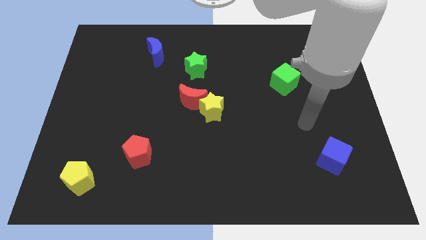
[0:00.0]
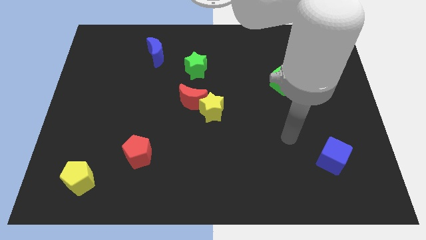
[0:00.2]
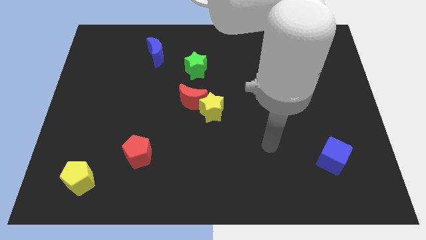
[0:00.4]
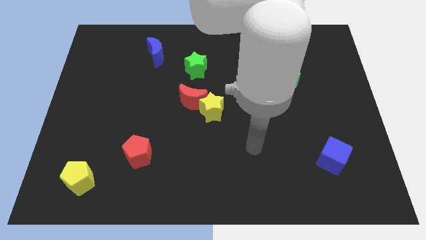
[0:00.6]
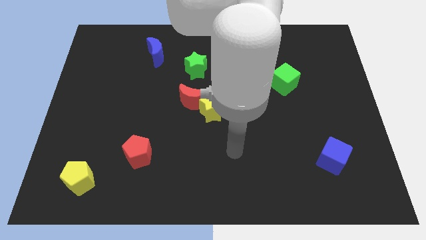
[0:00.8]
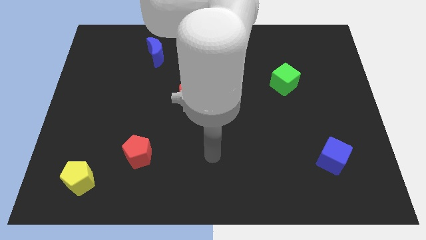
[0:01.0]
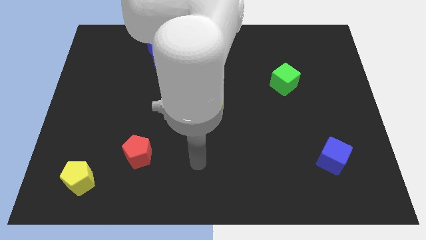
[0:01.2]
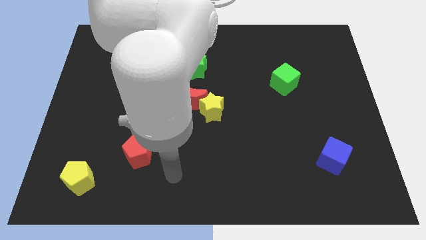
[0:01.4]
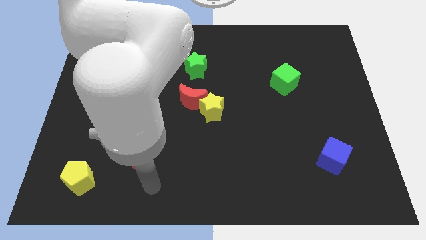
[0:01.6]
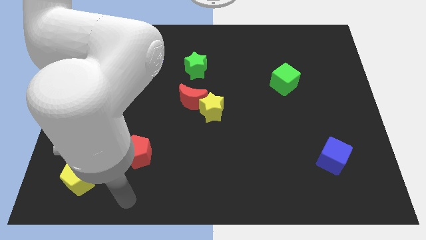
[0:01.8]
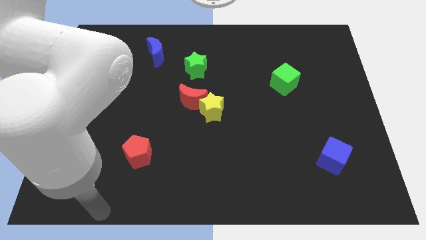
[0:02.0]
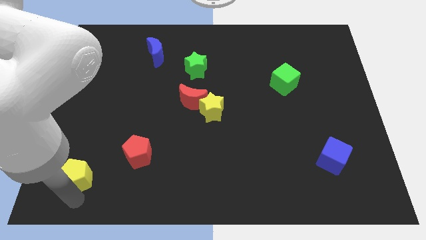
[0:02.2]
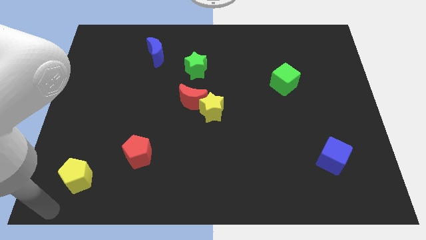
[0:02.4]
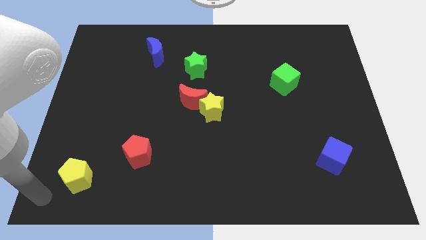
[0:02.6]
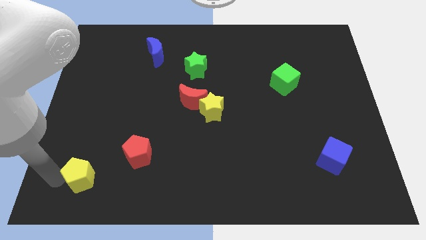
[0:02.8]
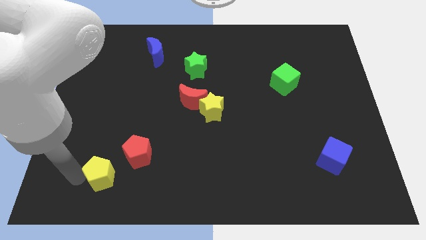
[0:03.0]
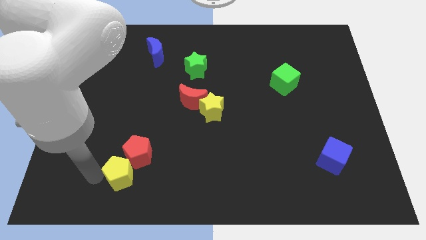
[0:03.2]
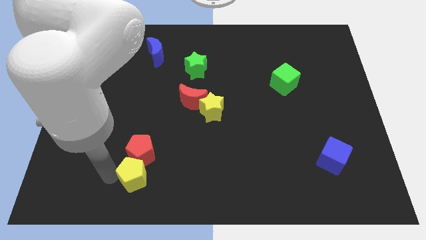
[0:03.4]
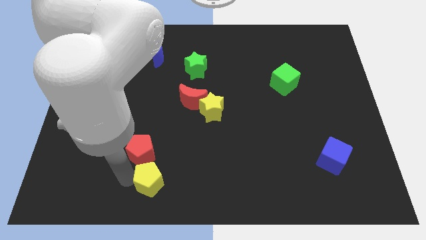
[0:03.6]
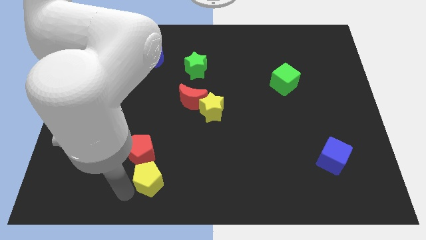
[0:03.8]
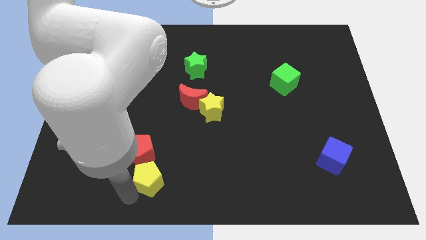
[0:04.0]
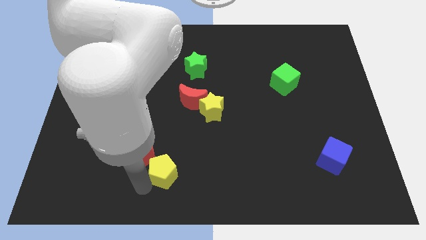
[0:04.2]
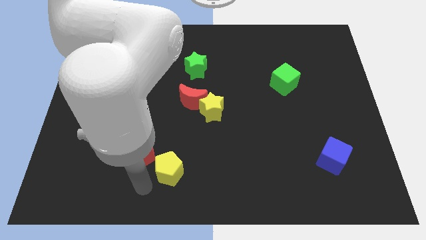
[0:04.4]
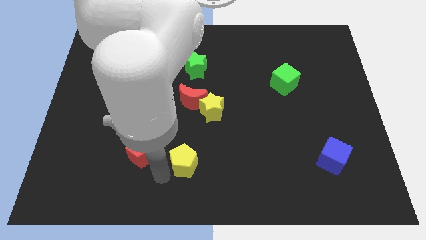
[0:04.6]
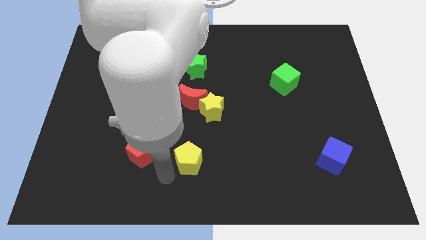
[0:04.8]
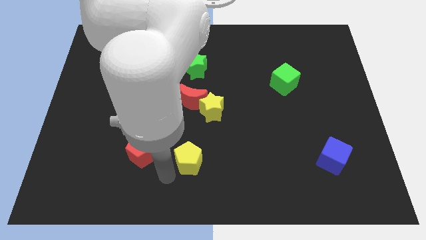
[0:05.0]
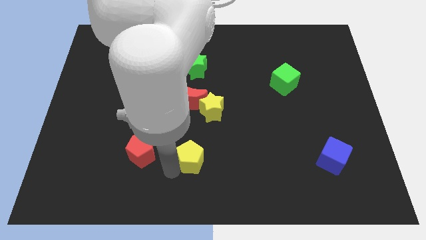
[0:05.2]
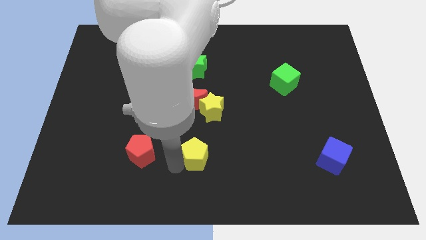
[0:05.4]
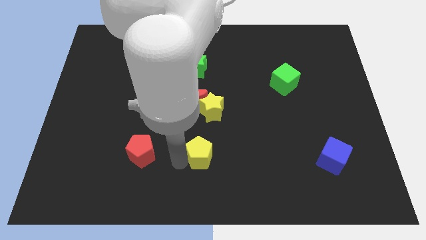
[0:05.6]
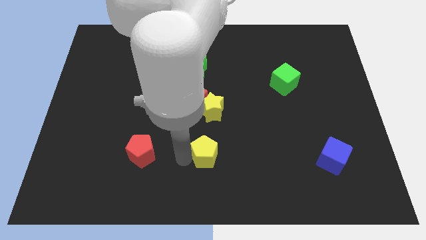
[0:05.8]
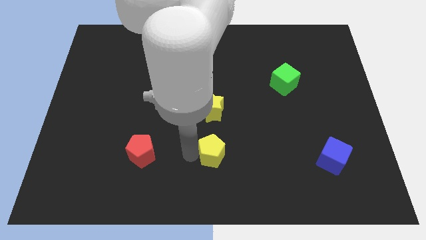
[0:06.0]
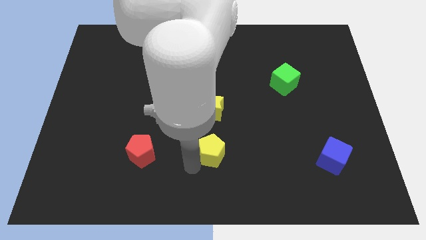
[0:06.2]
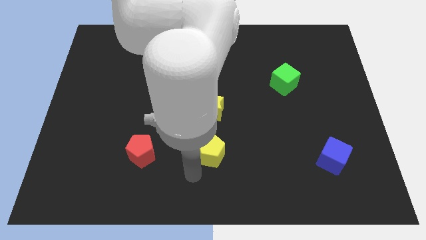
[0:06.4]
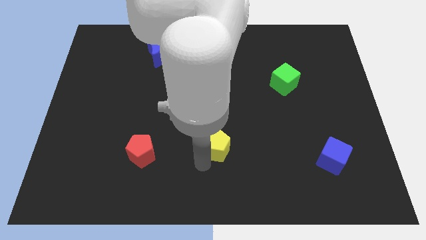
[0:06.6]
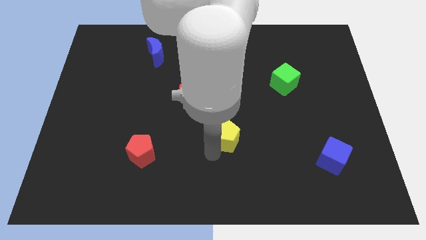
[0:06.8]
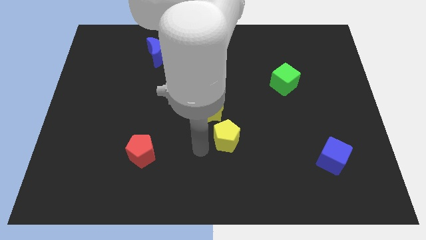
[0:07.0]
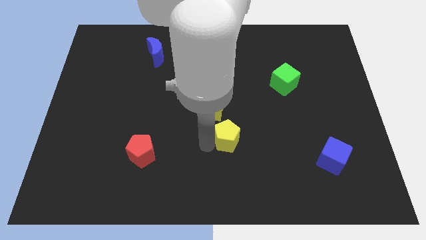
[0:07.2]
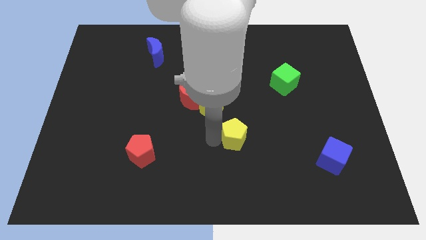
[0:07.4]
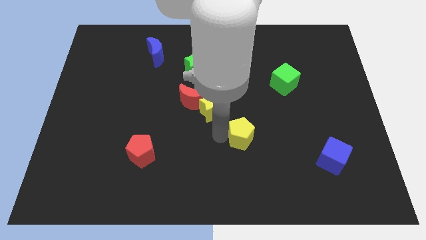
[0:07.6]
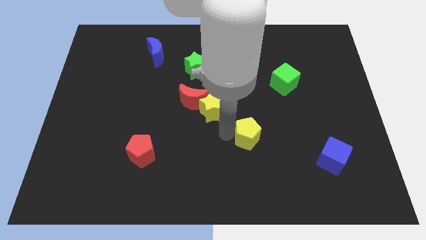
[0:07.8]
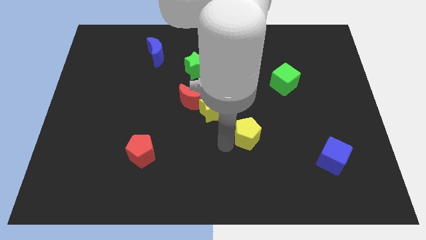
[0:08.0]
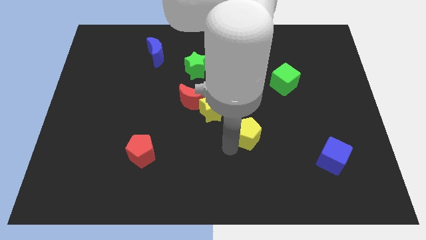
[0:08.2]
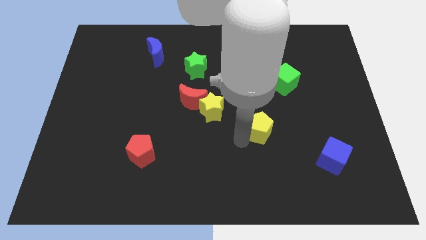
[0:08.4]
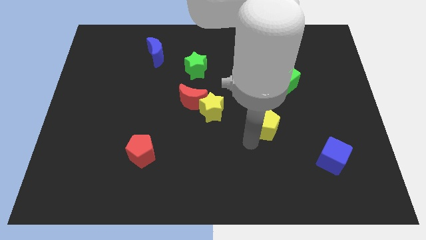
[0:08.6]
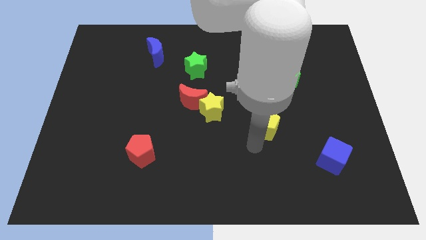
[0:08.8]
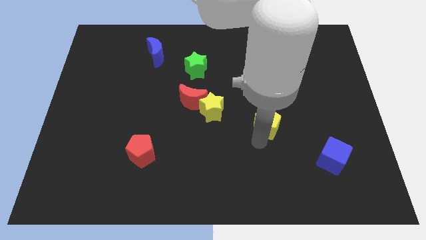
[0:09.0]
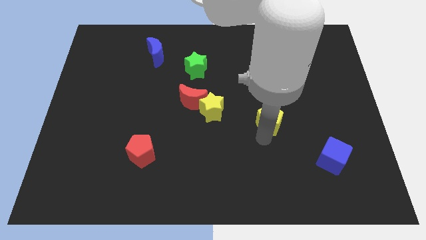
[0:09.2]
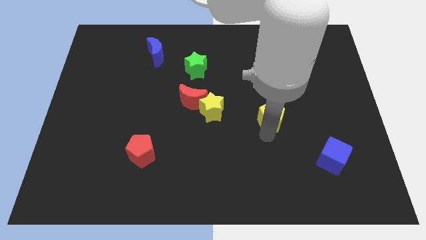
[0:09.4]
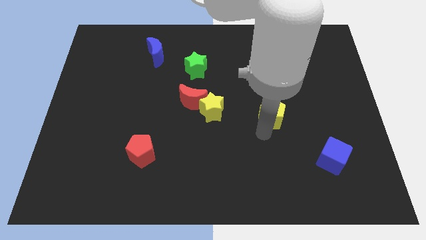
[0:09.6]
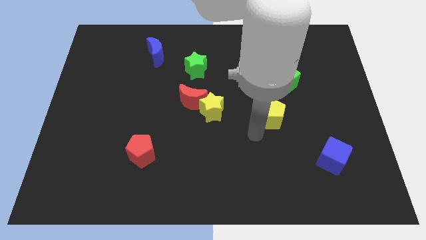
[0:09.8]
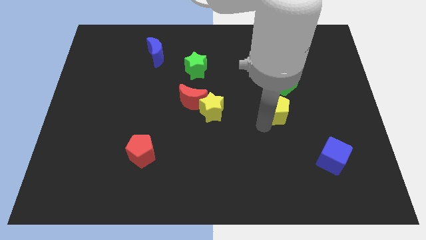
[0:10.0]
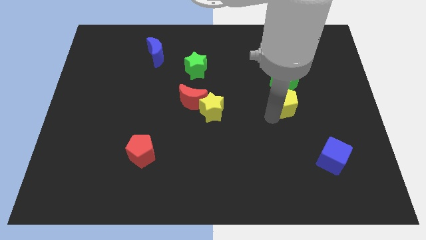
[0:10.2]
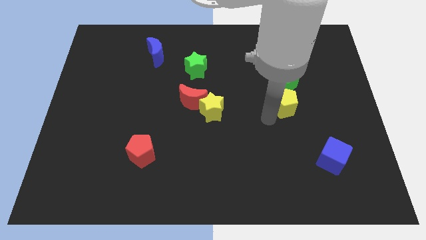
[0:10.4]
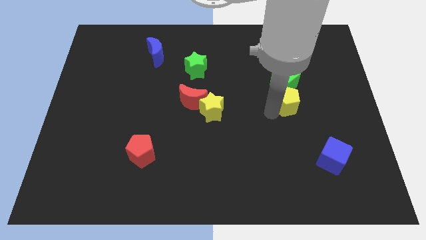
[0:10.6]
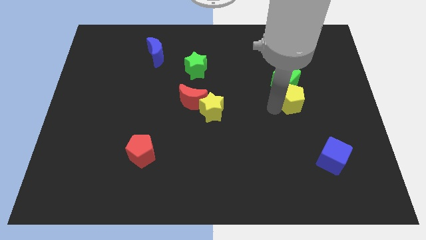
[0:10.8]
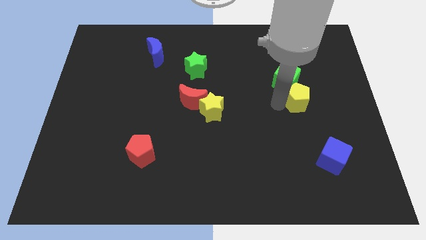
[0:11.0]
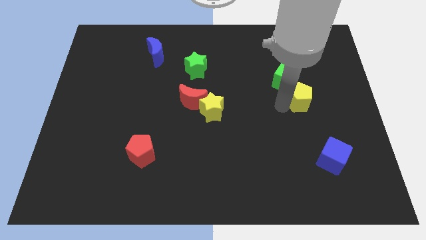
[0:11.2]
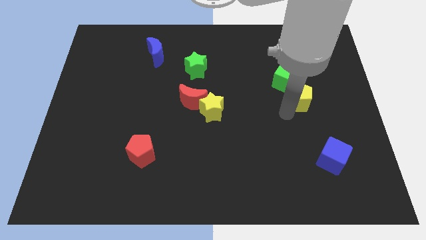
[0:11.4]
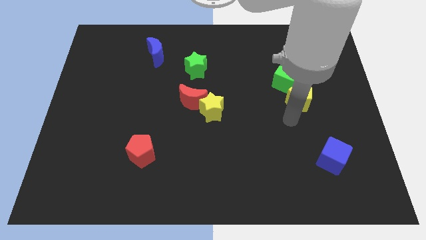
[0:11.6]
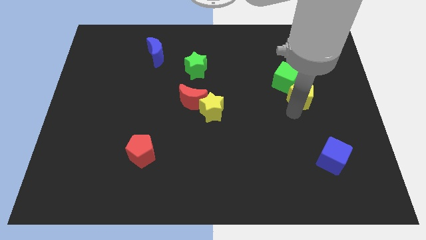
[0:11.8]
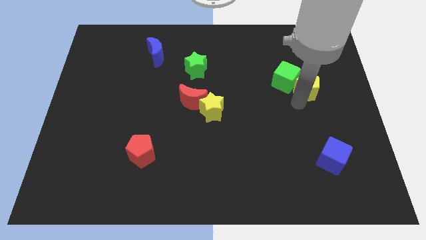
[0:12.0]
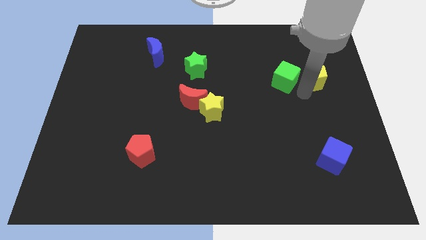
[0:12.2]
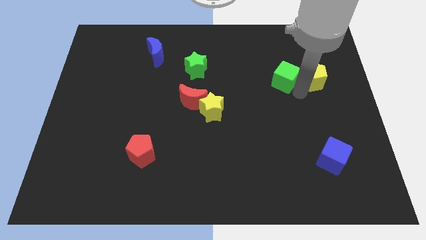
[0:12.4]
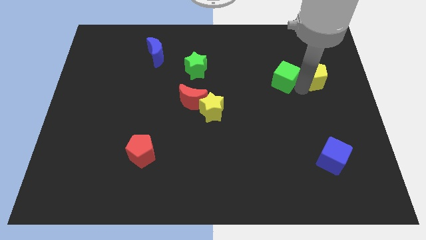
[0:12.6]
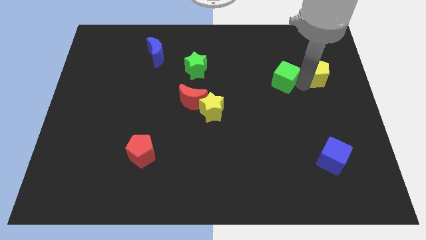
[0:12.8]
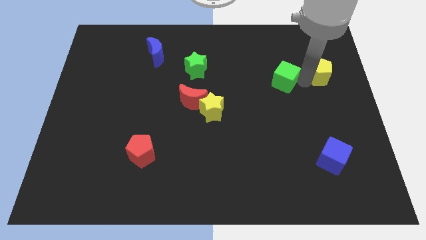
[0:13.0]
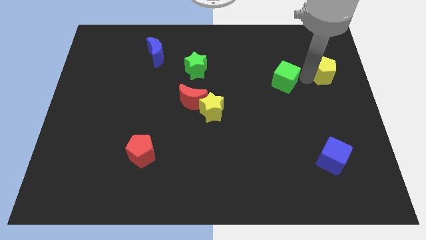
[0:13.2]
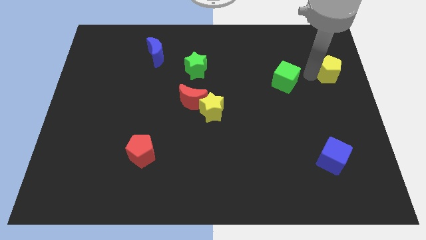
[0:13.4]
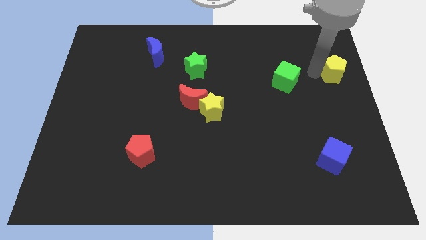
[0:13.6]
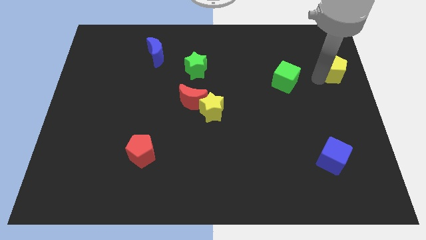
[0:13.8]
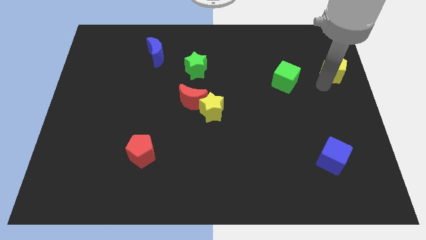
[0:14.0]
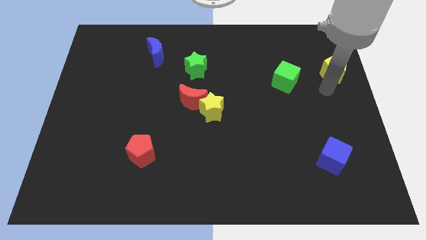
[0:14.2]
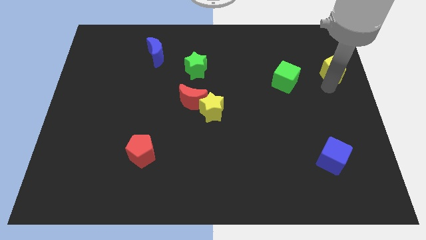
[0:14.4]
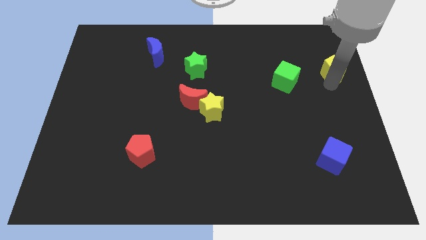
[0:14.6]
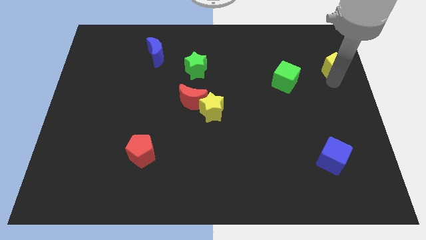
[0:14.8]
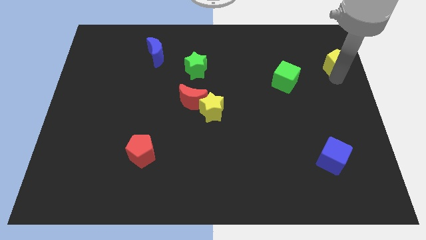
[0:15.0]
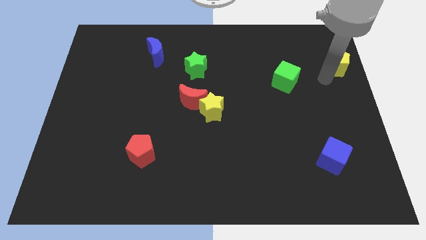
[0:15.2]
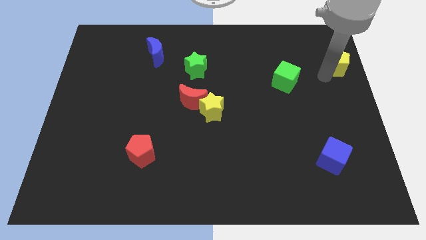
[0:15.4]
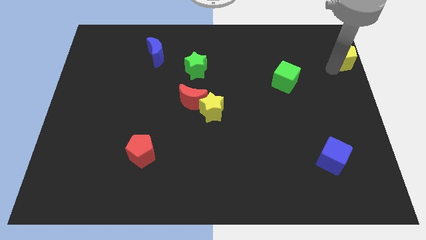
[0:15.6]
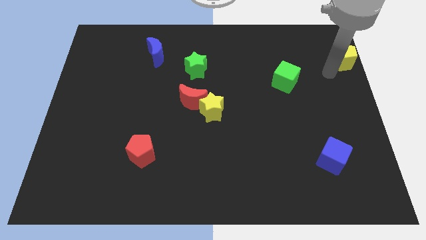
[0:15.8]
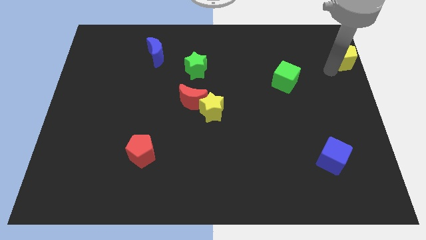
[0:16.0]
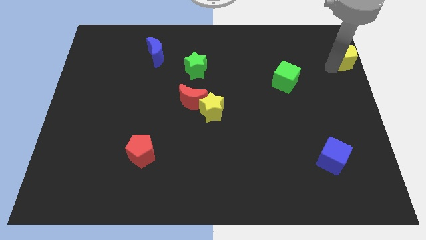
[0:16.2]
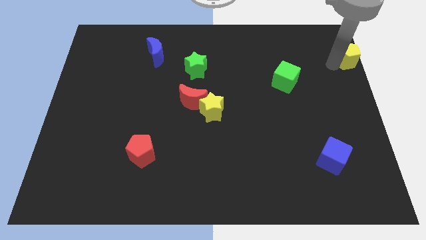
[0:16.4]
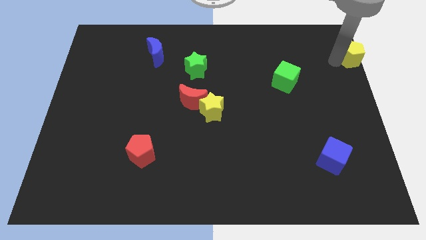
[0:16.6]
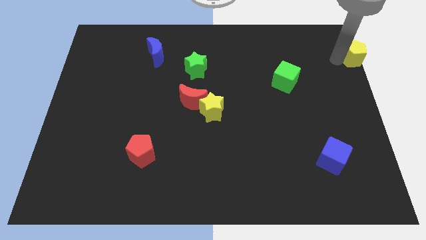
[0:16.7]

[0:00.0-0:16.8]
put the yellow pentagon to the upper right corner
